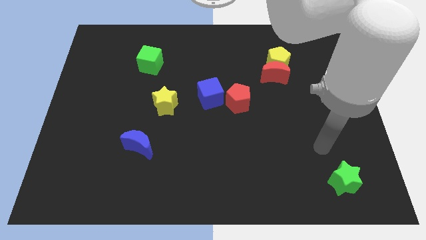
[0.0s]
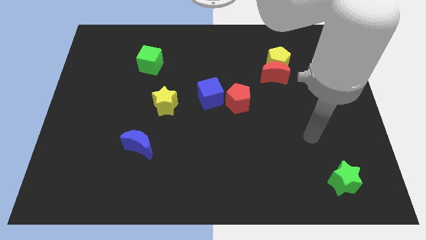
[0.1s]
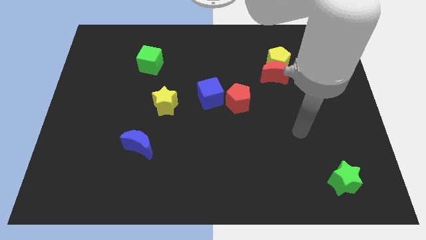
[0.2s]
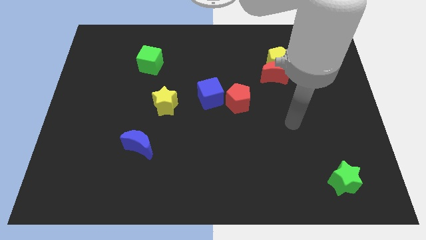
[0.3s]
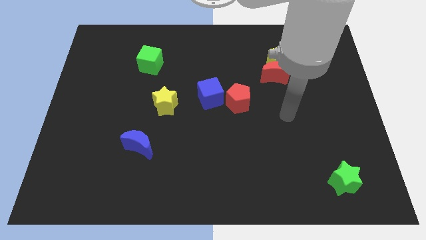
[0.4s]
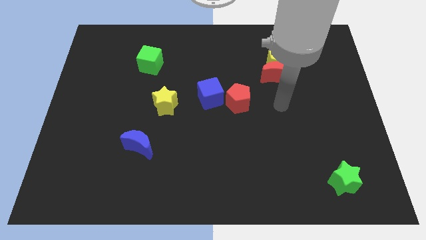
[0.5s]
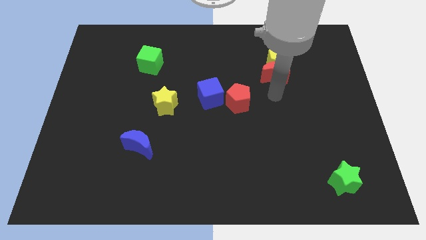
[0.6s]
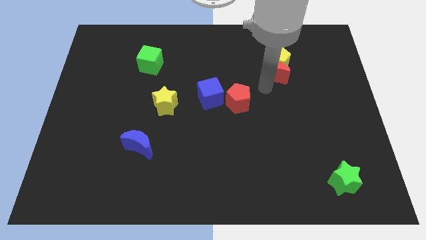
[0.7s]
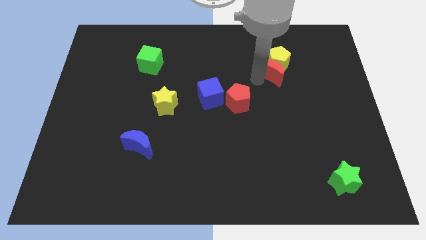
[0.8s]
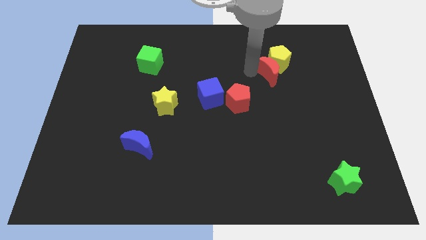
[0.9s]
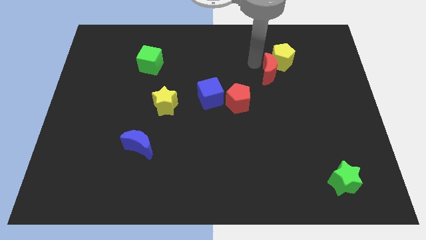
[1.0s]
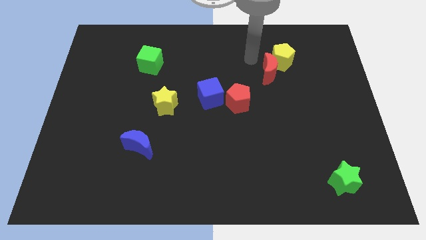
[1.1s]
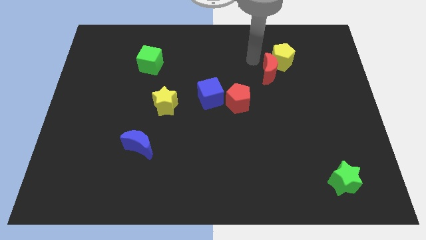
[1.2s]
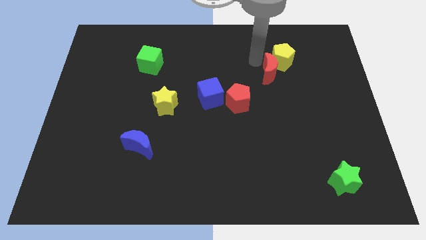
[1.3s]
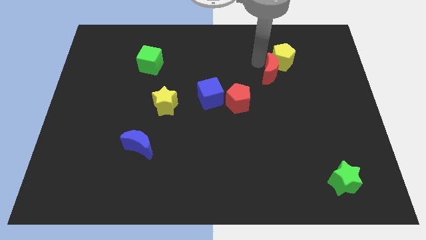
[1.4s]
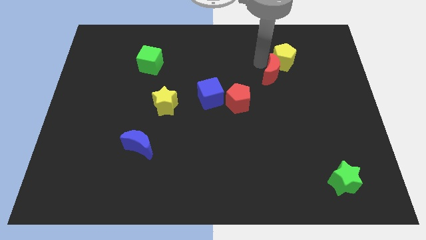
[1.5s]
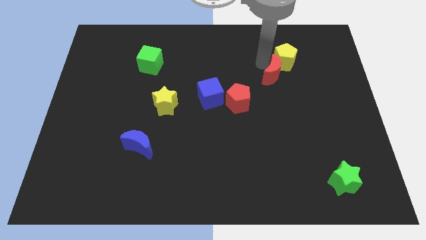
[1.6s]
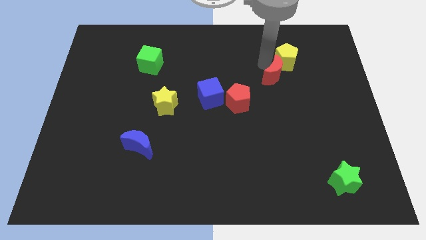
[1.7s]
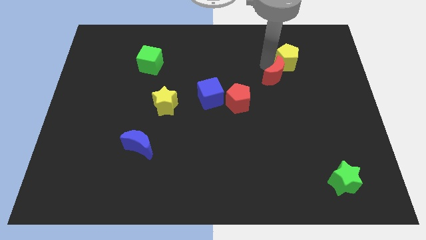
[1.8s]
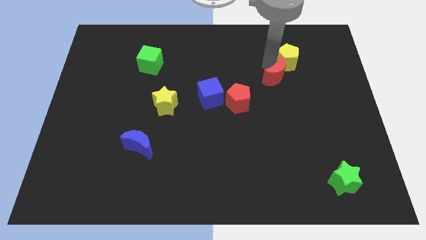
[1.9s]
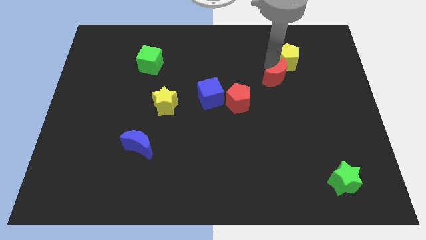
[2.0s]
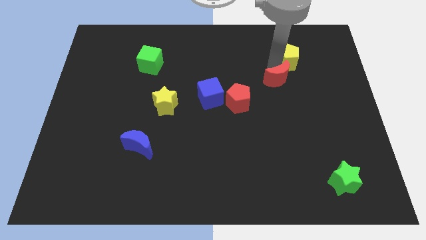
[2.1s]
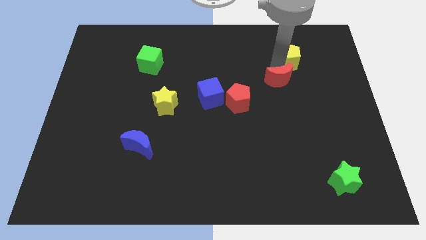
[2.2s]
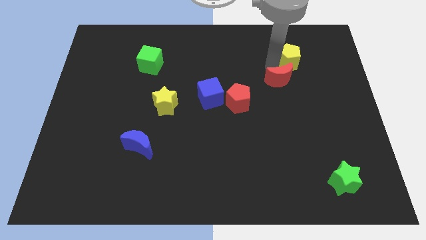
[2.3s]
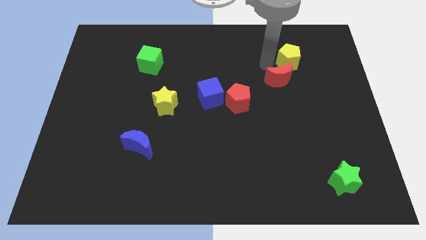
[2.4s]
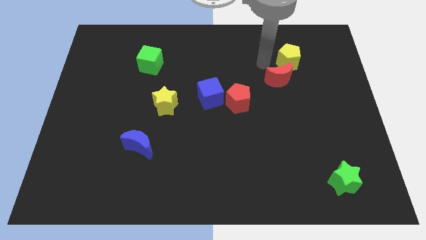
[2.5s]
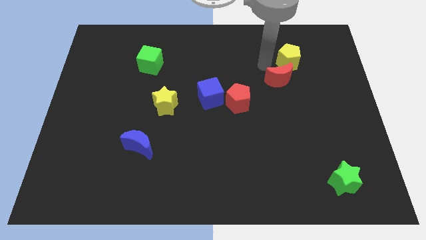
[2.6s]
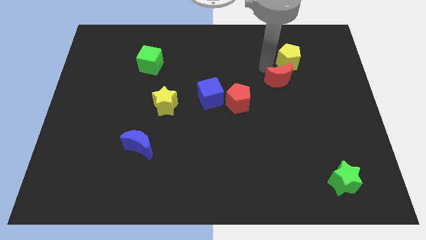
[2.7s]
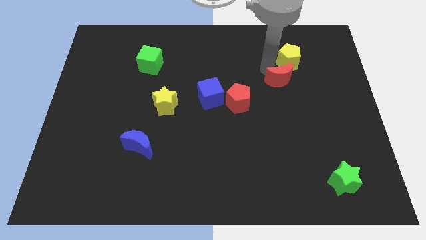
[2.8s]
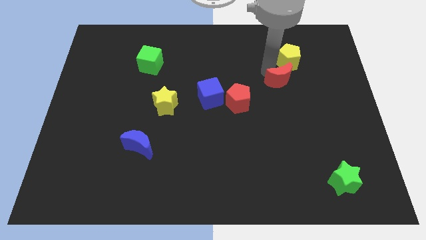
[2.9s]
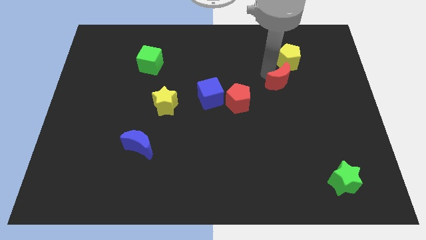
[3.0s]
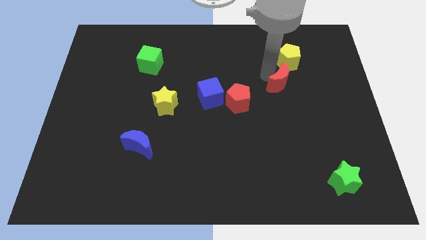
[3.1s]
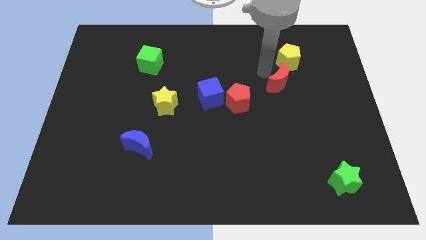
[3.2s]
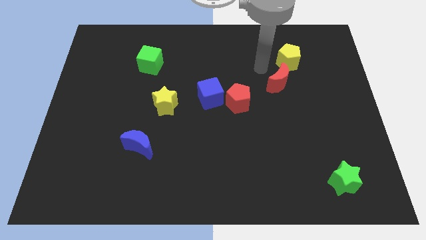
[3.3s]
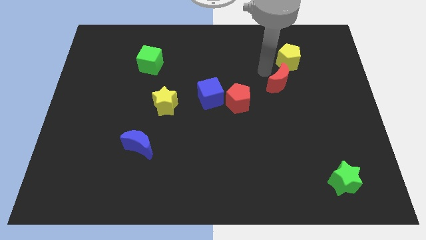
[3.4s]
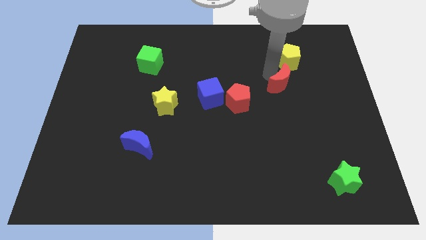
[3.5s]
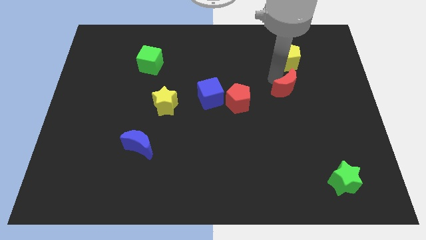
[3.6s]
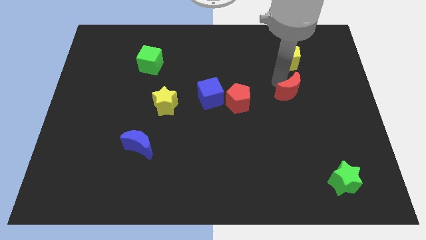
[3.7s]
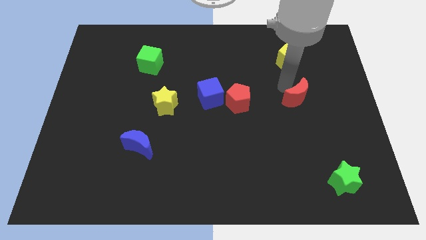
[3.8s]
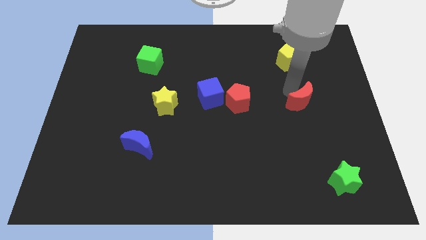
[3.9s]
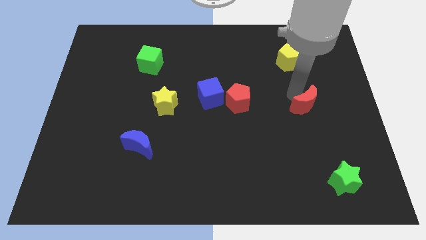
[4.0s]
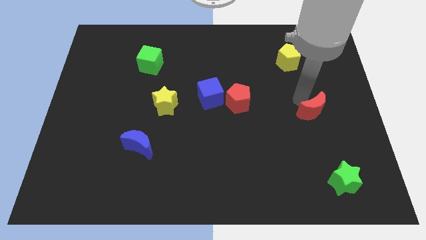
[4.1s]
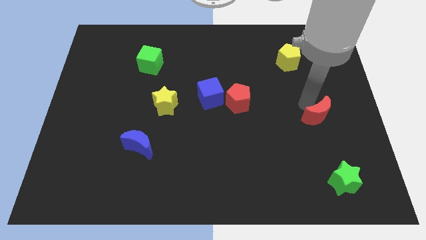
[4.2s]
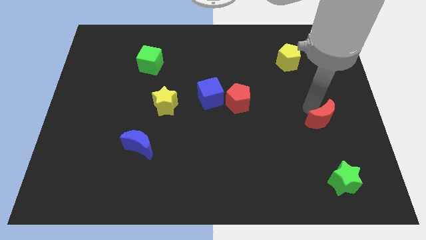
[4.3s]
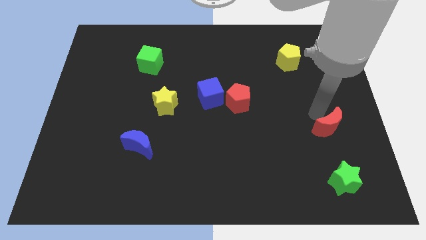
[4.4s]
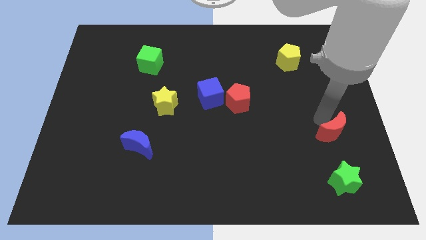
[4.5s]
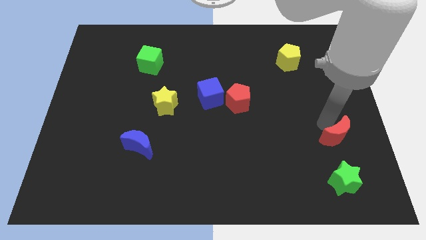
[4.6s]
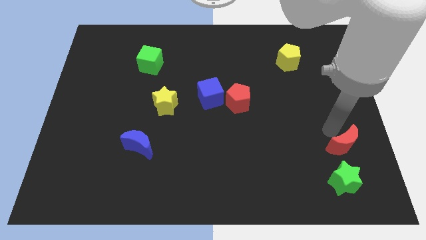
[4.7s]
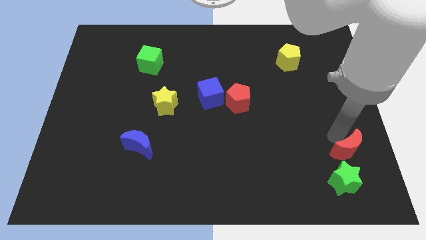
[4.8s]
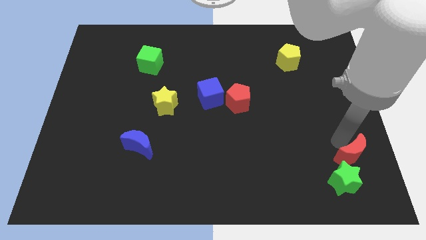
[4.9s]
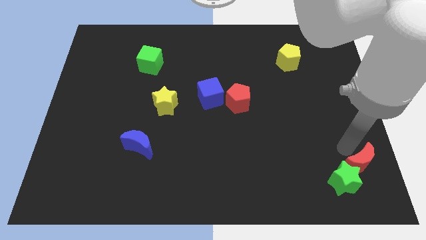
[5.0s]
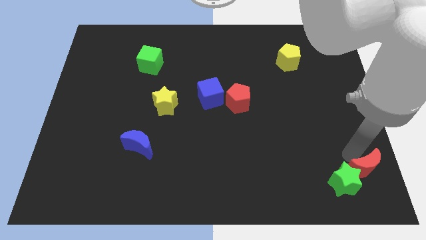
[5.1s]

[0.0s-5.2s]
push the red moon to the lower right corner

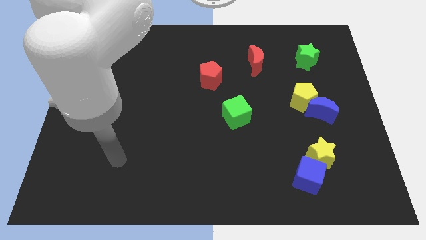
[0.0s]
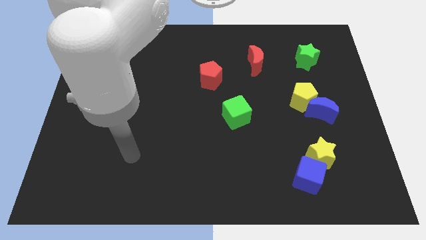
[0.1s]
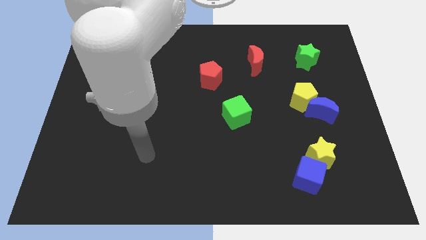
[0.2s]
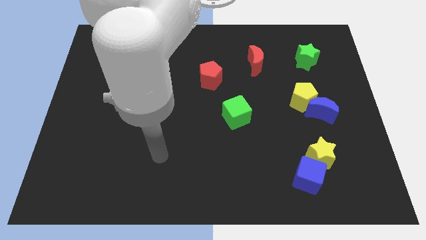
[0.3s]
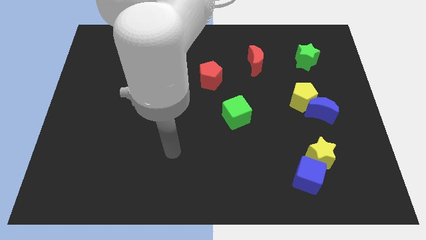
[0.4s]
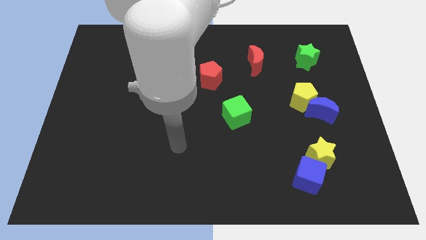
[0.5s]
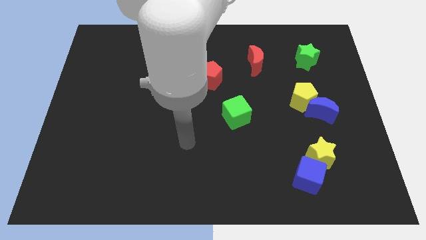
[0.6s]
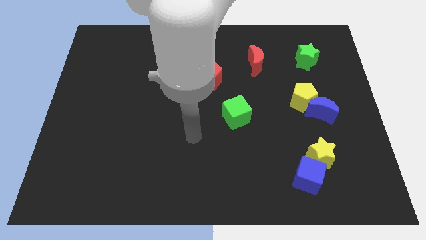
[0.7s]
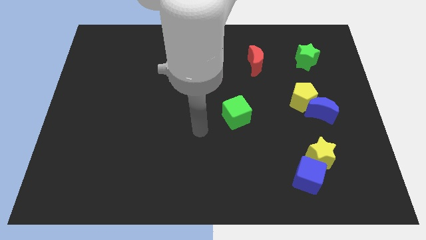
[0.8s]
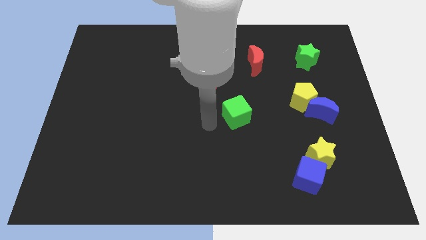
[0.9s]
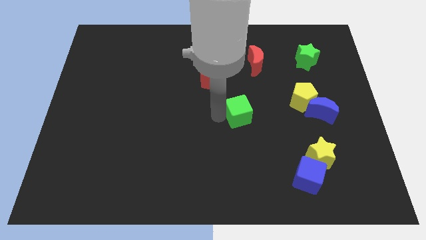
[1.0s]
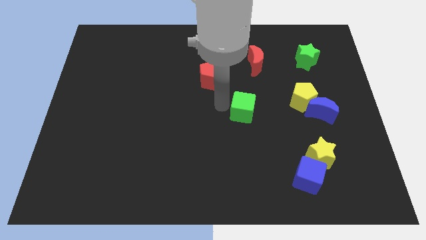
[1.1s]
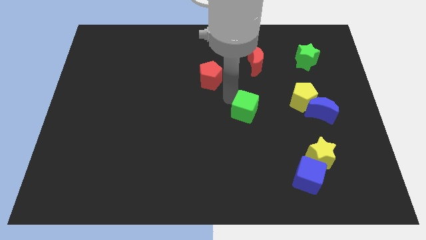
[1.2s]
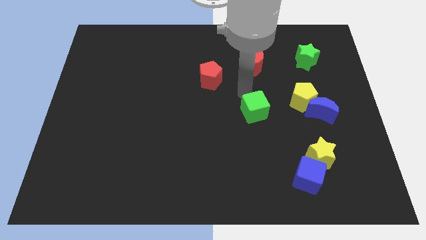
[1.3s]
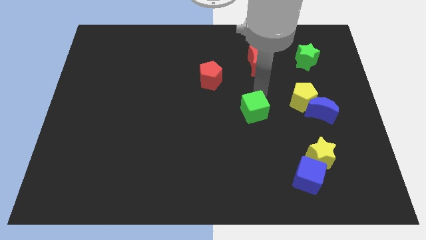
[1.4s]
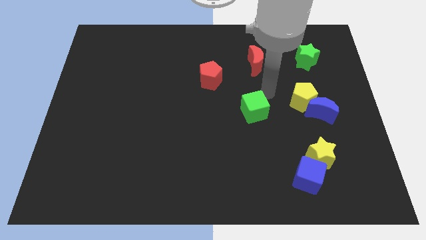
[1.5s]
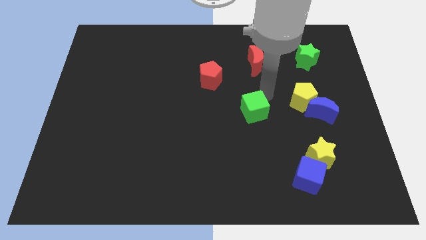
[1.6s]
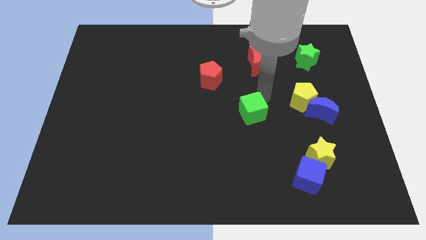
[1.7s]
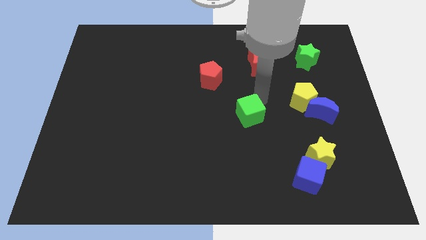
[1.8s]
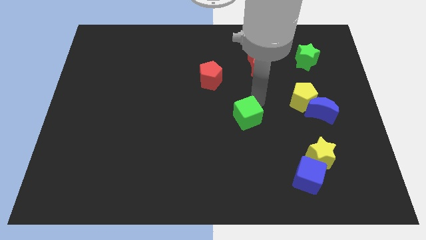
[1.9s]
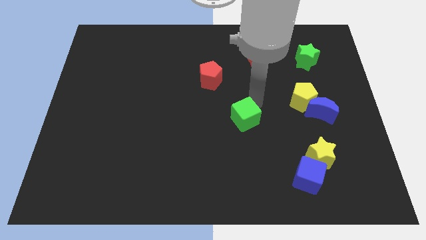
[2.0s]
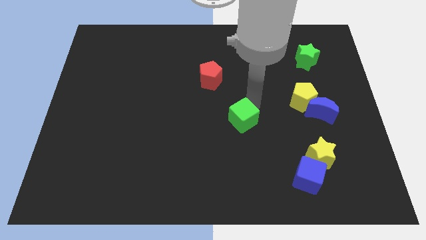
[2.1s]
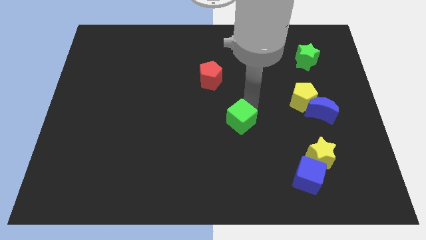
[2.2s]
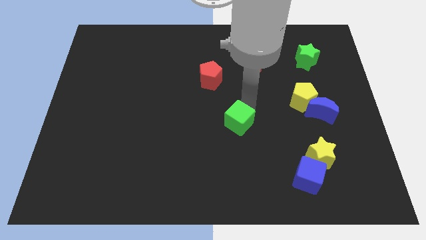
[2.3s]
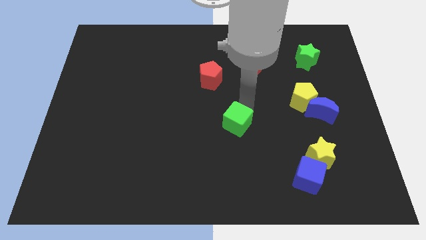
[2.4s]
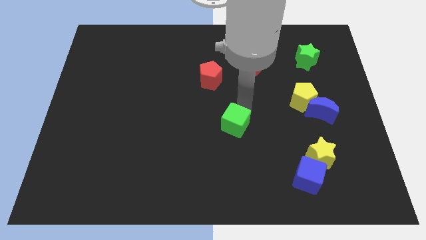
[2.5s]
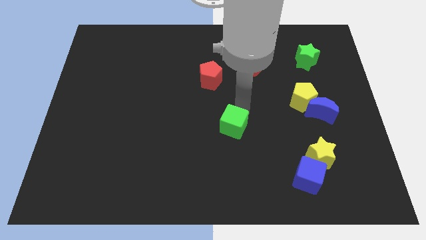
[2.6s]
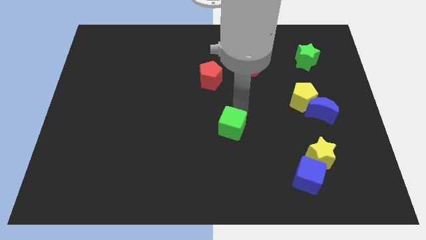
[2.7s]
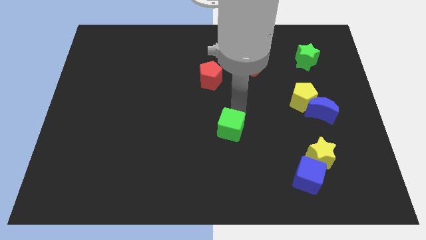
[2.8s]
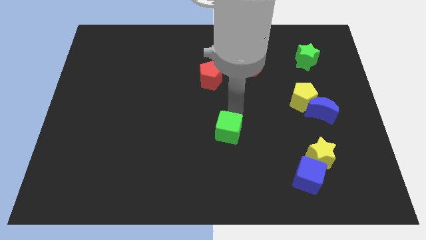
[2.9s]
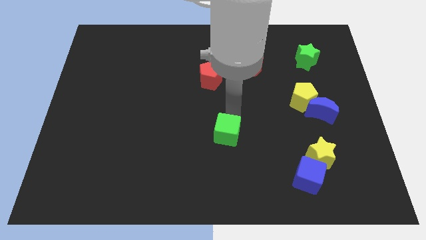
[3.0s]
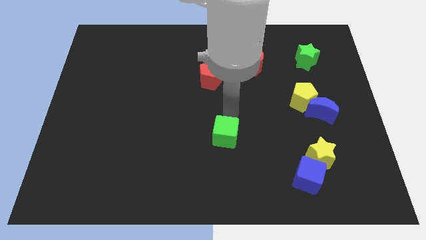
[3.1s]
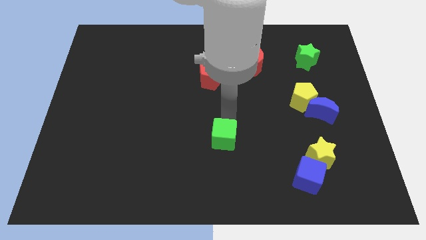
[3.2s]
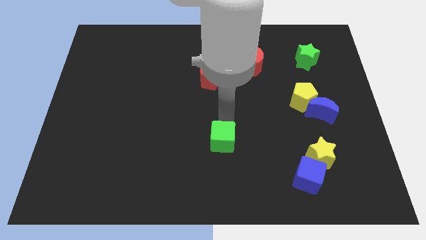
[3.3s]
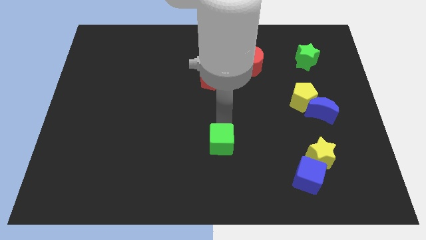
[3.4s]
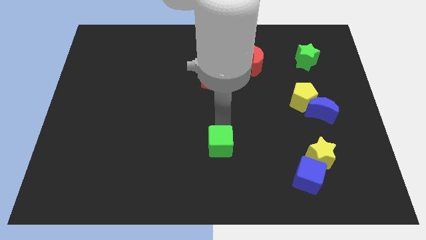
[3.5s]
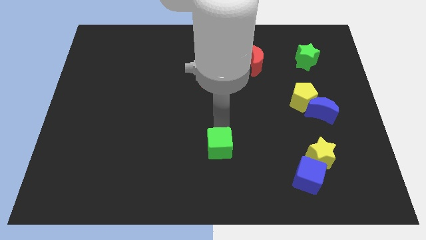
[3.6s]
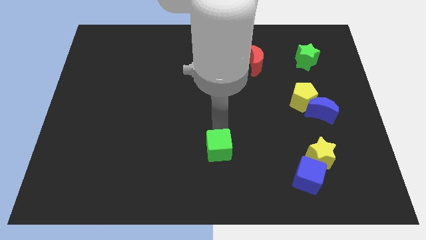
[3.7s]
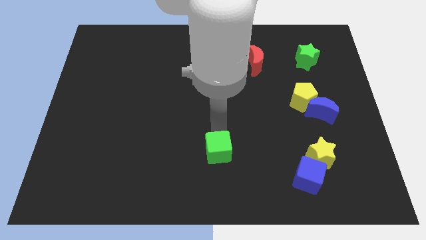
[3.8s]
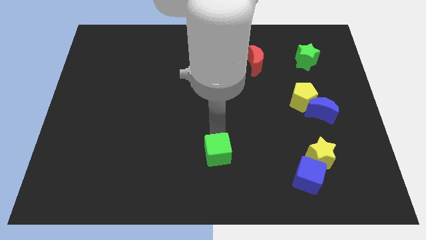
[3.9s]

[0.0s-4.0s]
move the green cube to the bottom
